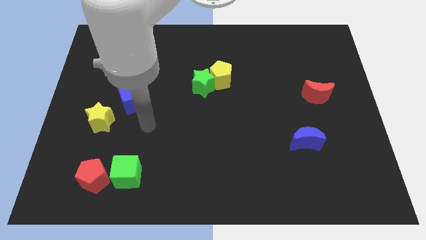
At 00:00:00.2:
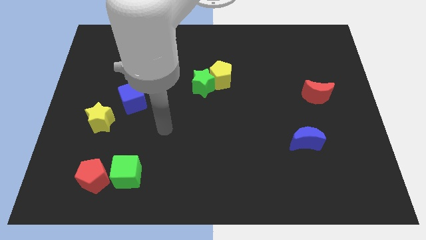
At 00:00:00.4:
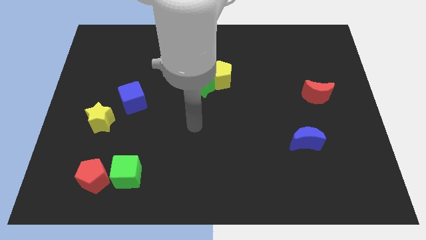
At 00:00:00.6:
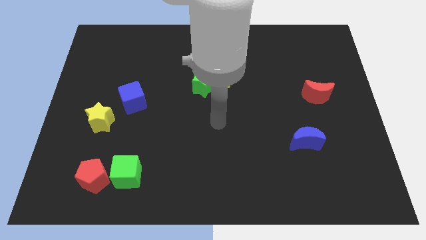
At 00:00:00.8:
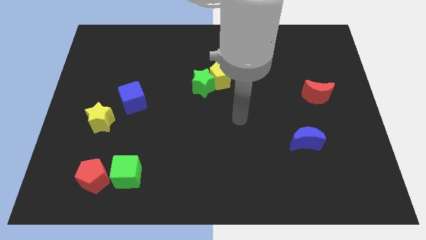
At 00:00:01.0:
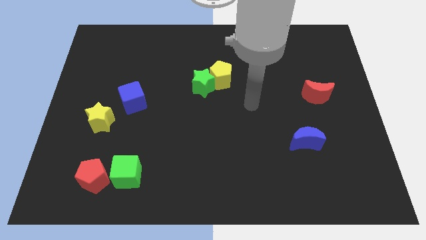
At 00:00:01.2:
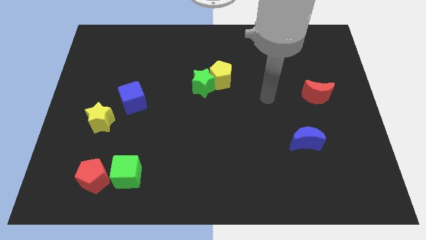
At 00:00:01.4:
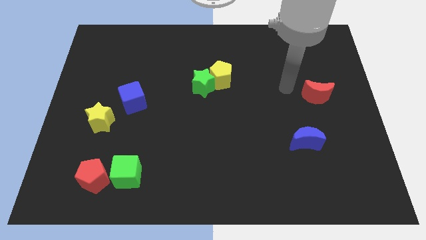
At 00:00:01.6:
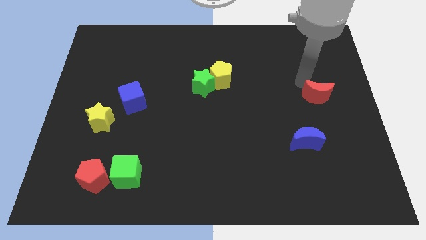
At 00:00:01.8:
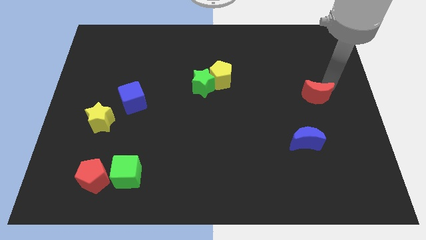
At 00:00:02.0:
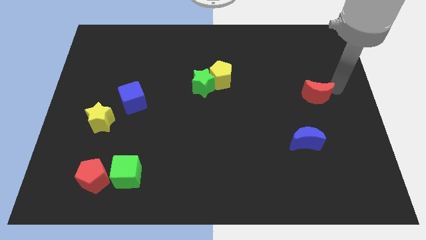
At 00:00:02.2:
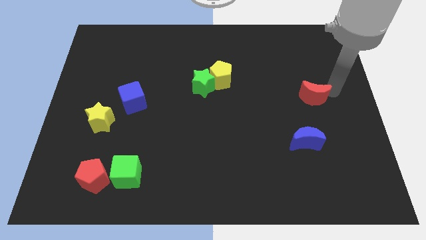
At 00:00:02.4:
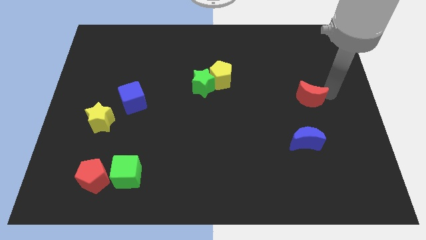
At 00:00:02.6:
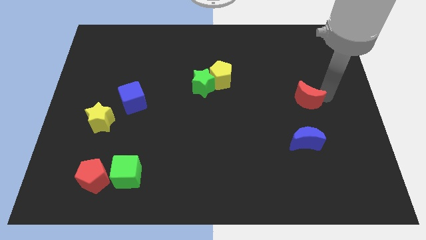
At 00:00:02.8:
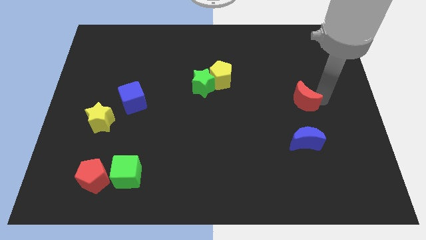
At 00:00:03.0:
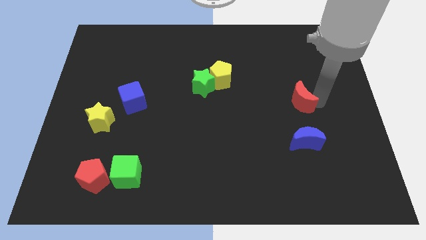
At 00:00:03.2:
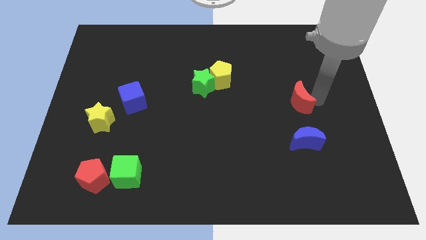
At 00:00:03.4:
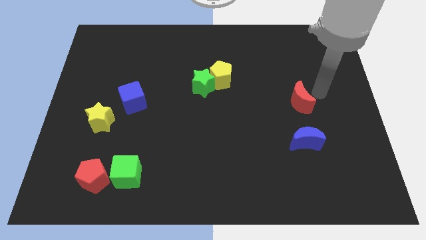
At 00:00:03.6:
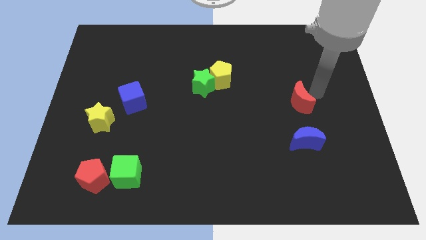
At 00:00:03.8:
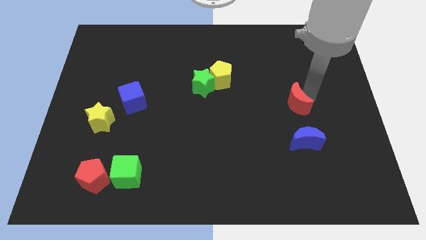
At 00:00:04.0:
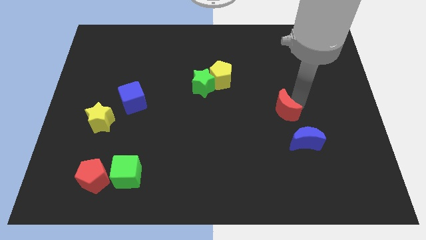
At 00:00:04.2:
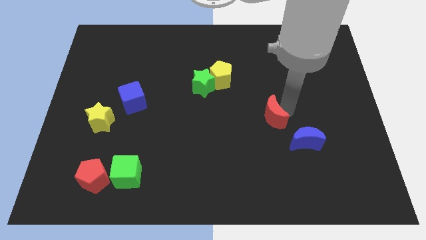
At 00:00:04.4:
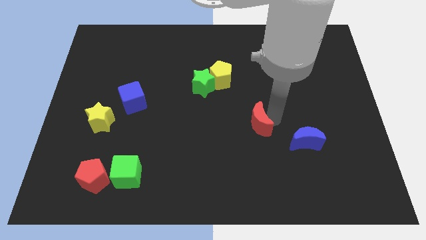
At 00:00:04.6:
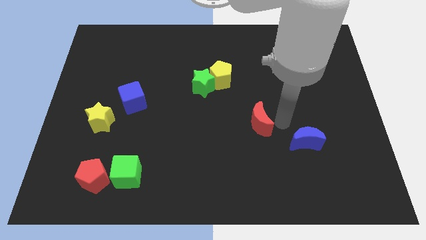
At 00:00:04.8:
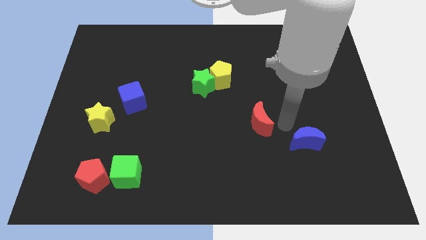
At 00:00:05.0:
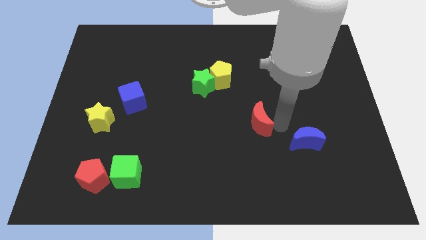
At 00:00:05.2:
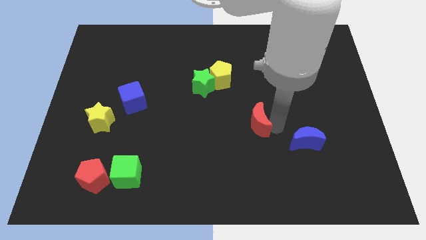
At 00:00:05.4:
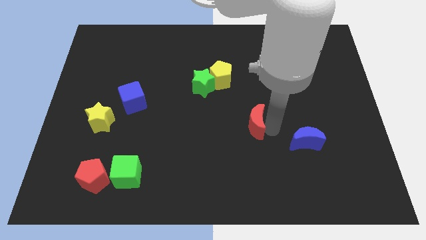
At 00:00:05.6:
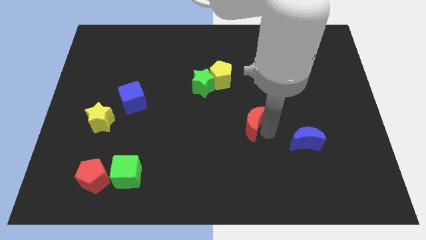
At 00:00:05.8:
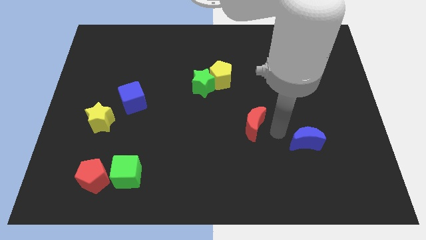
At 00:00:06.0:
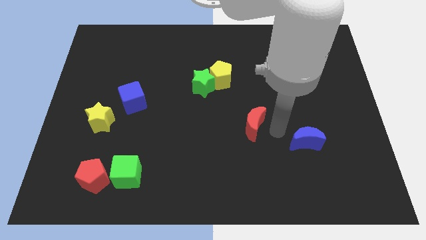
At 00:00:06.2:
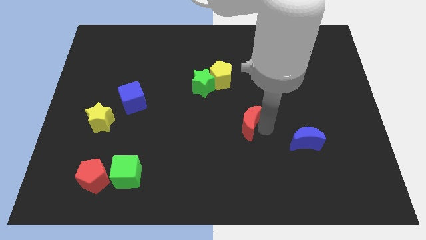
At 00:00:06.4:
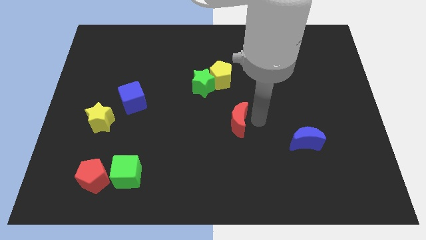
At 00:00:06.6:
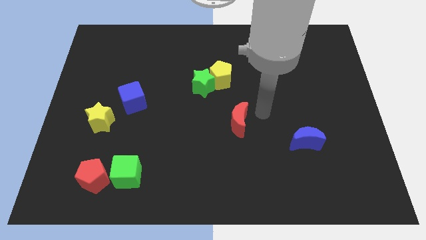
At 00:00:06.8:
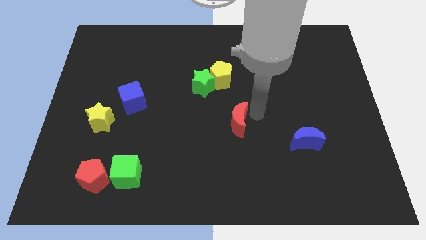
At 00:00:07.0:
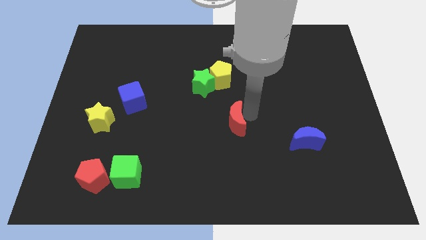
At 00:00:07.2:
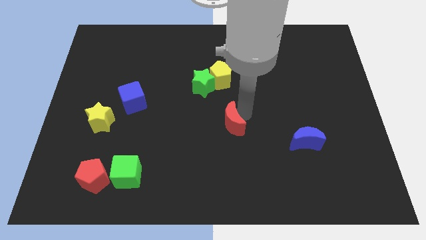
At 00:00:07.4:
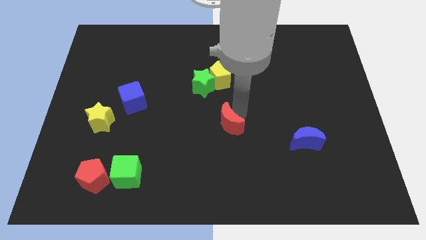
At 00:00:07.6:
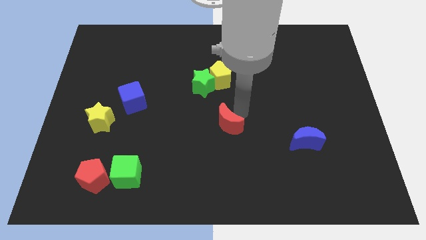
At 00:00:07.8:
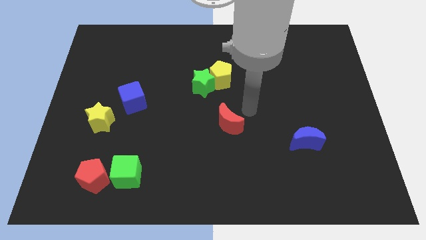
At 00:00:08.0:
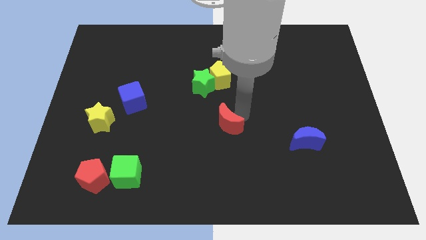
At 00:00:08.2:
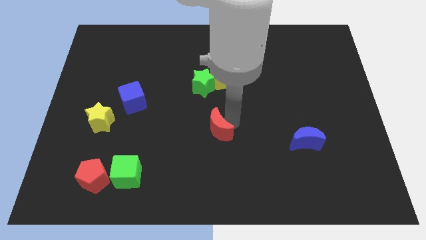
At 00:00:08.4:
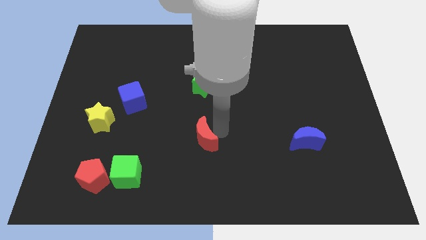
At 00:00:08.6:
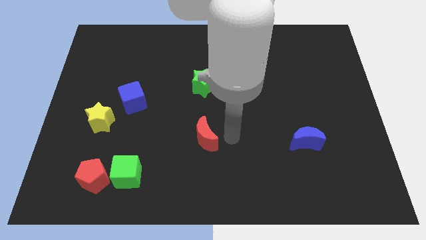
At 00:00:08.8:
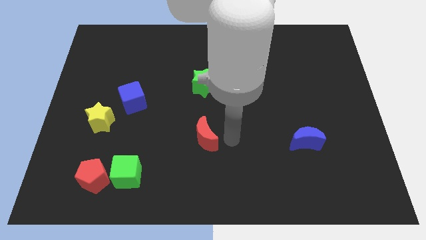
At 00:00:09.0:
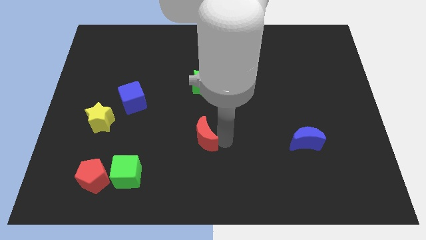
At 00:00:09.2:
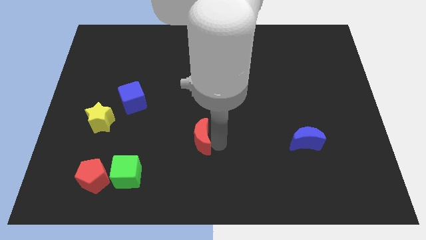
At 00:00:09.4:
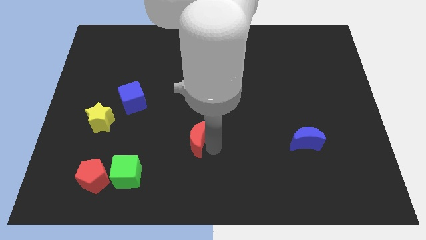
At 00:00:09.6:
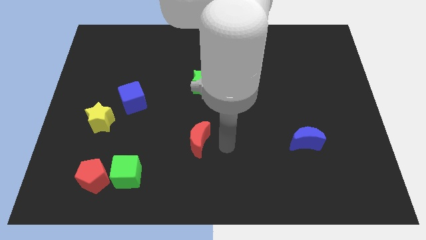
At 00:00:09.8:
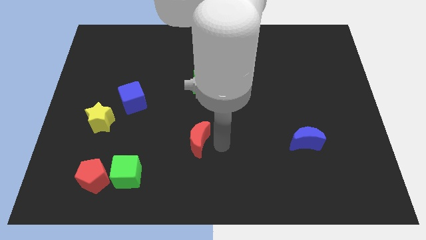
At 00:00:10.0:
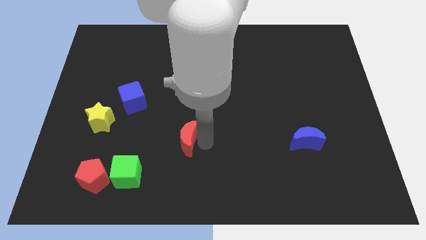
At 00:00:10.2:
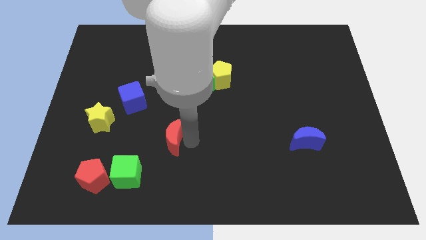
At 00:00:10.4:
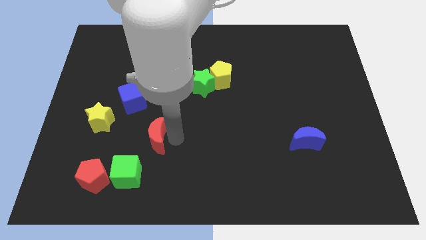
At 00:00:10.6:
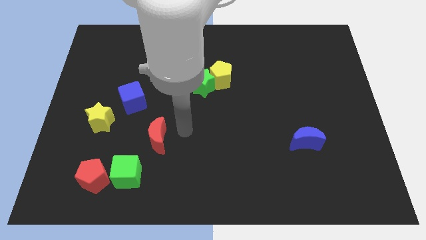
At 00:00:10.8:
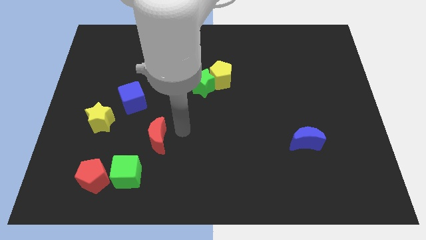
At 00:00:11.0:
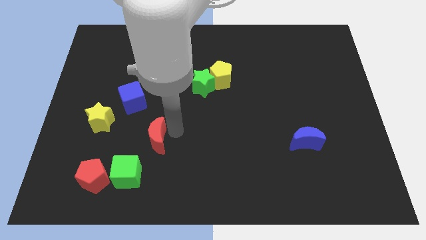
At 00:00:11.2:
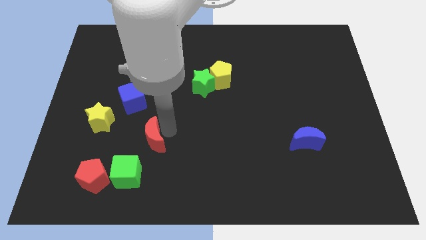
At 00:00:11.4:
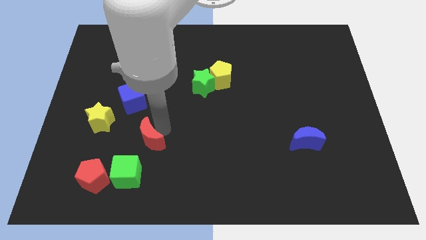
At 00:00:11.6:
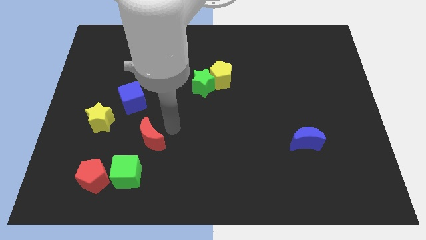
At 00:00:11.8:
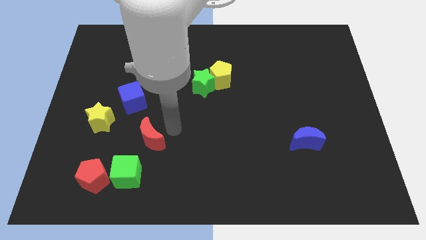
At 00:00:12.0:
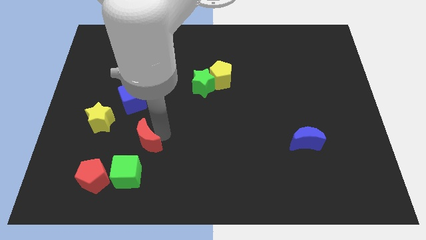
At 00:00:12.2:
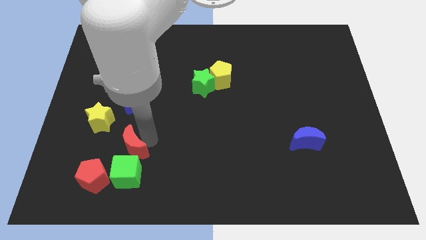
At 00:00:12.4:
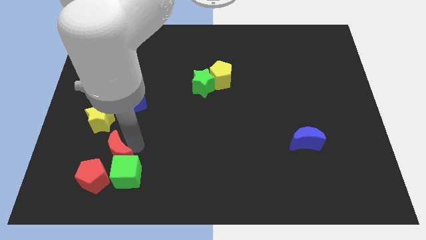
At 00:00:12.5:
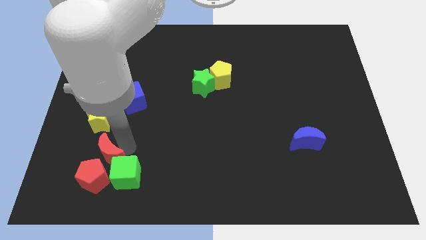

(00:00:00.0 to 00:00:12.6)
move the red moon to the red pentagon

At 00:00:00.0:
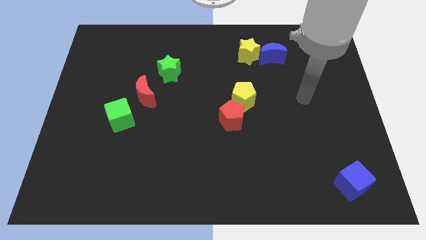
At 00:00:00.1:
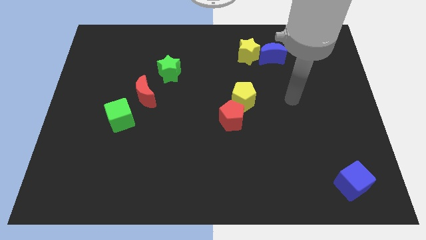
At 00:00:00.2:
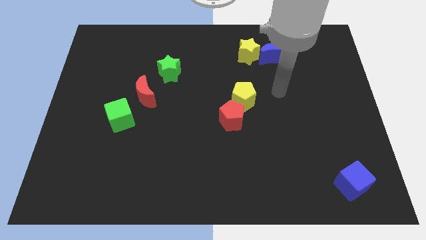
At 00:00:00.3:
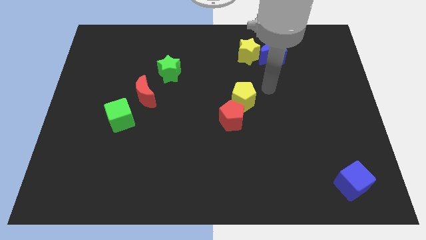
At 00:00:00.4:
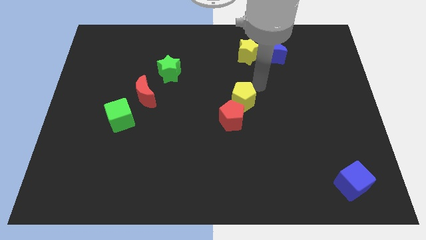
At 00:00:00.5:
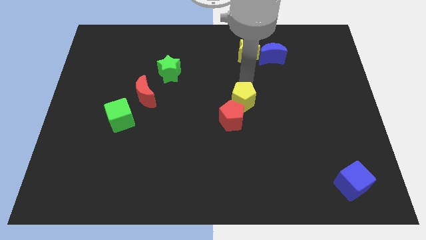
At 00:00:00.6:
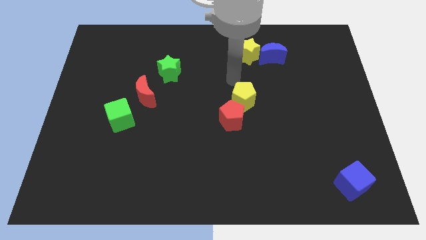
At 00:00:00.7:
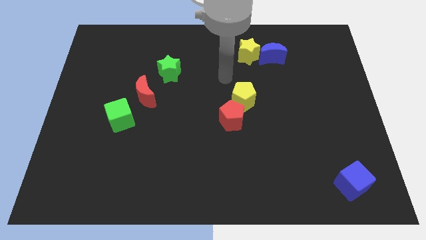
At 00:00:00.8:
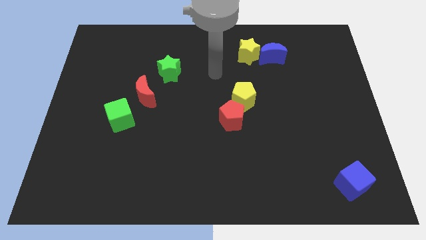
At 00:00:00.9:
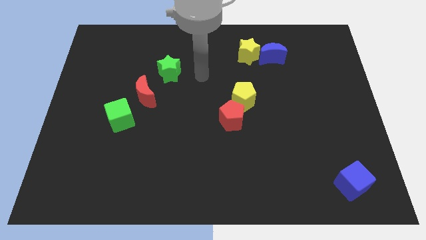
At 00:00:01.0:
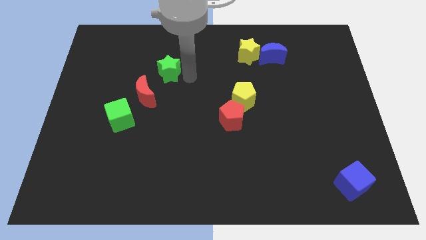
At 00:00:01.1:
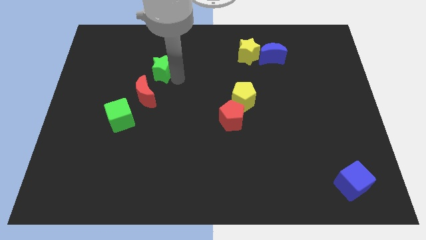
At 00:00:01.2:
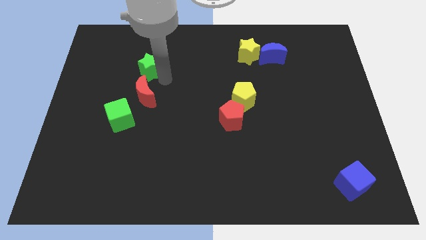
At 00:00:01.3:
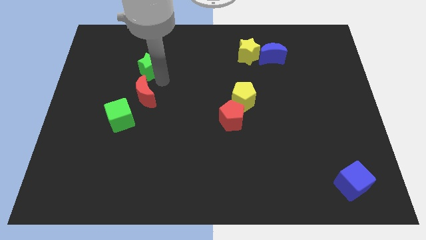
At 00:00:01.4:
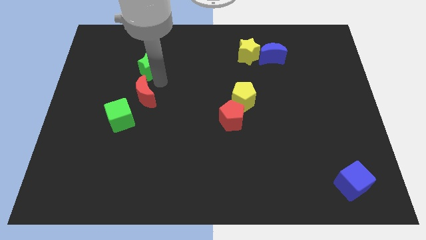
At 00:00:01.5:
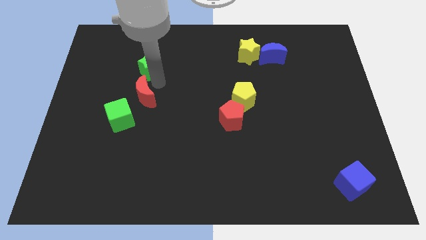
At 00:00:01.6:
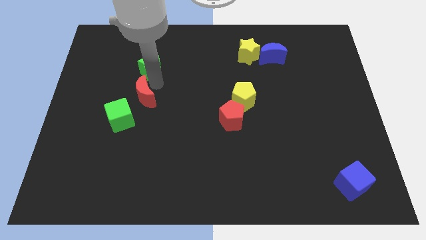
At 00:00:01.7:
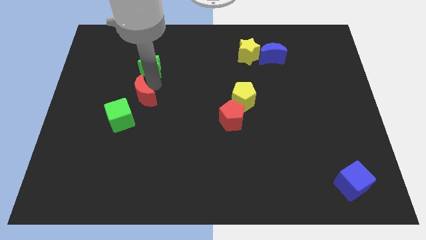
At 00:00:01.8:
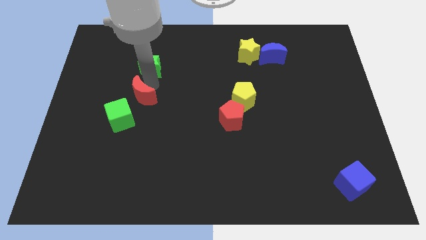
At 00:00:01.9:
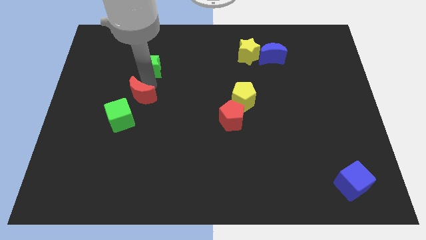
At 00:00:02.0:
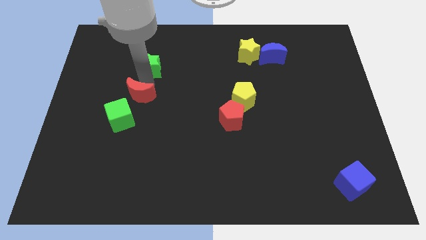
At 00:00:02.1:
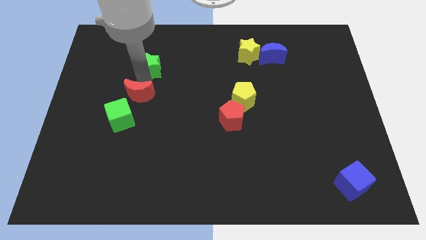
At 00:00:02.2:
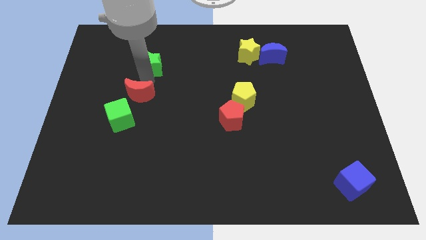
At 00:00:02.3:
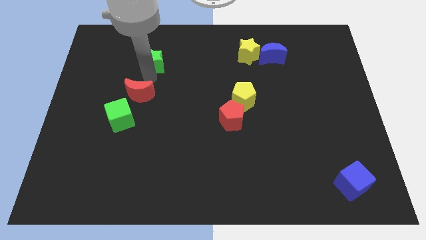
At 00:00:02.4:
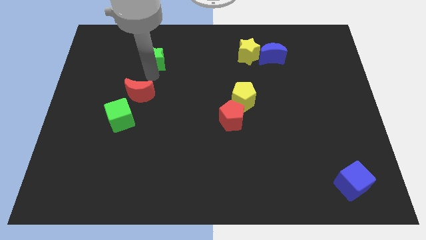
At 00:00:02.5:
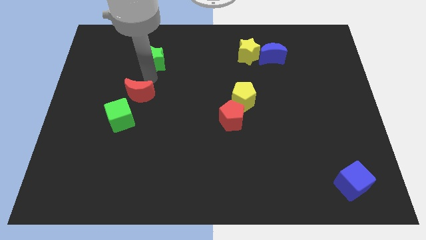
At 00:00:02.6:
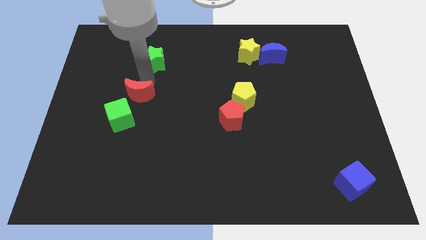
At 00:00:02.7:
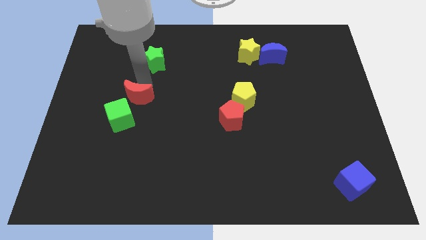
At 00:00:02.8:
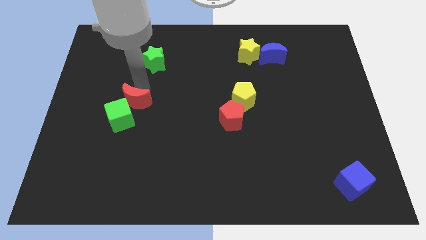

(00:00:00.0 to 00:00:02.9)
move the red moon to the green cube
